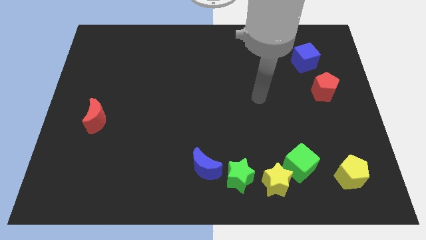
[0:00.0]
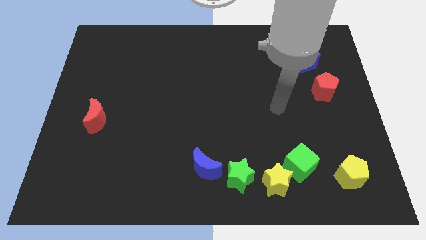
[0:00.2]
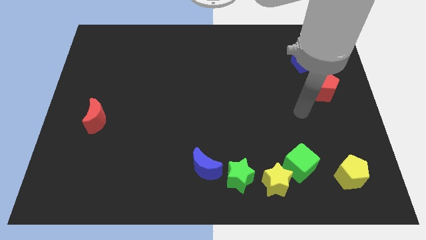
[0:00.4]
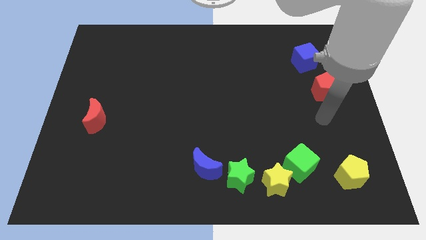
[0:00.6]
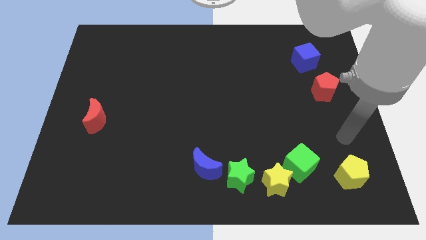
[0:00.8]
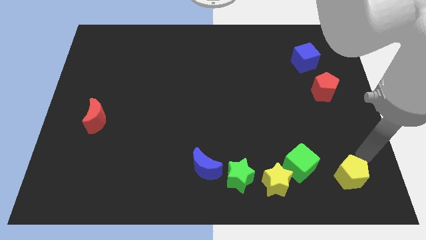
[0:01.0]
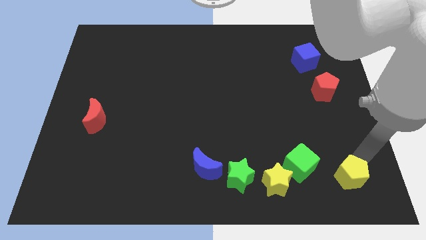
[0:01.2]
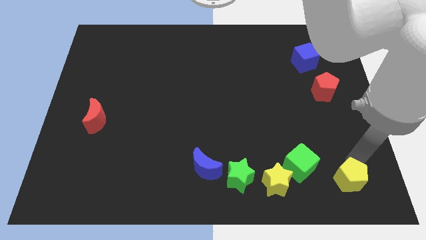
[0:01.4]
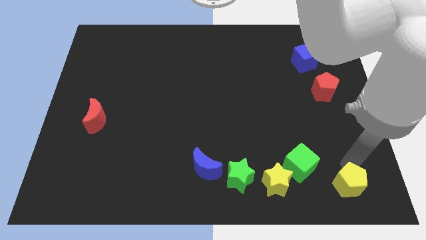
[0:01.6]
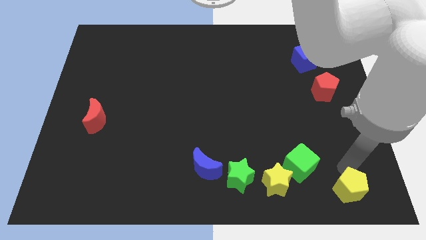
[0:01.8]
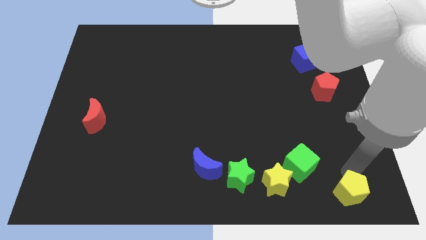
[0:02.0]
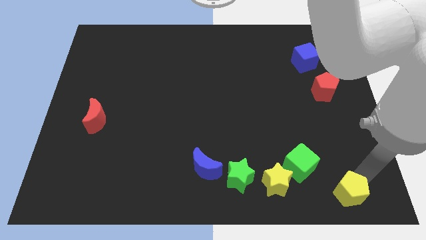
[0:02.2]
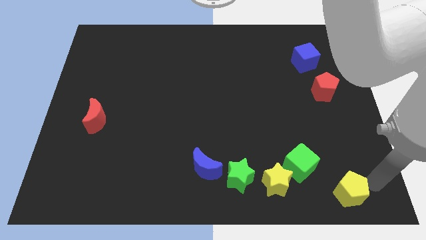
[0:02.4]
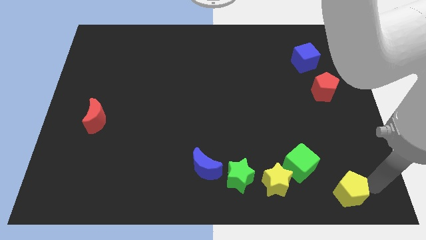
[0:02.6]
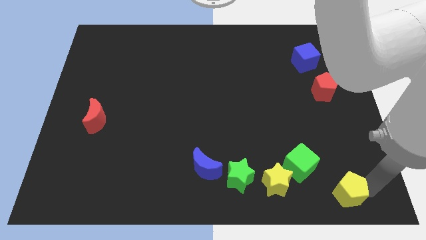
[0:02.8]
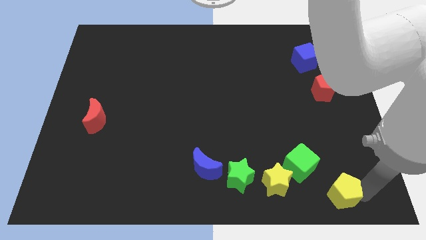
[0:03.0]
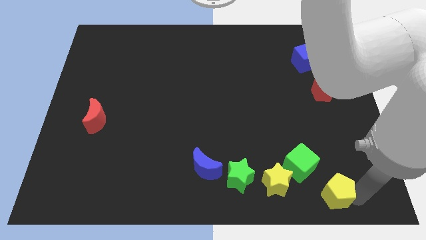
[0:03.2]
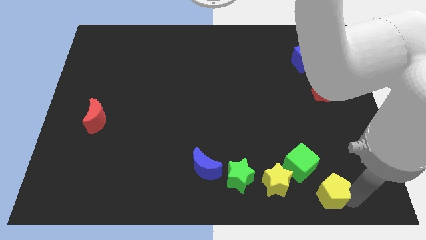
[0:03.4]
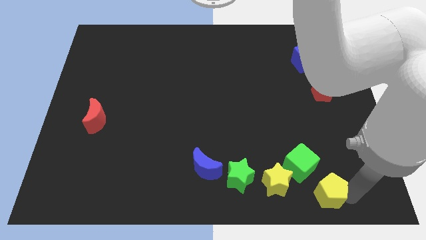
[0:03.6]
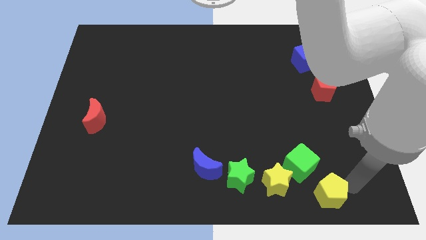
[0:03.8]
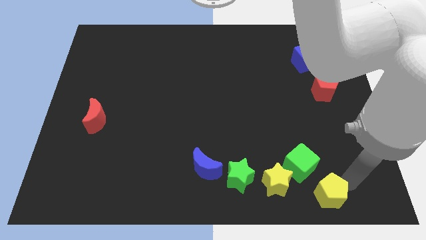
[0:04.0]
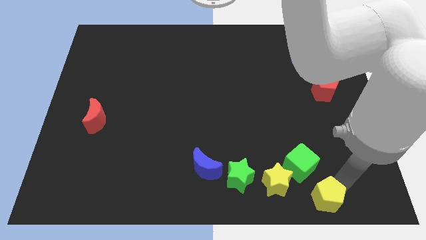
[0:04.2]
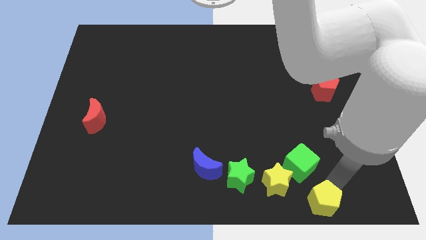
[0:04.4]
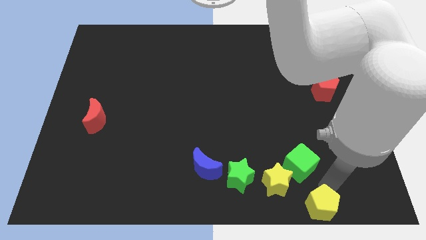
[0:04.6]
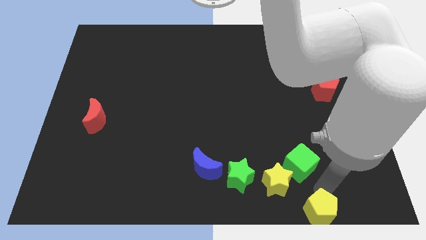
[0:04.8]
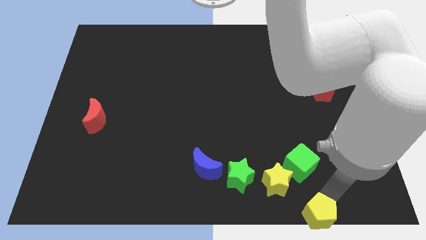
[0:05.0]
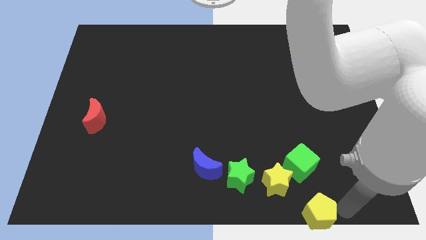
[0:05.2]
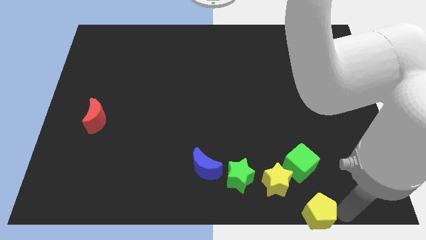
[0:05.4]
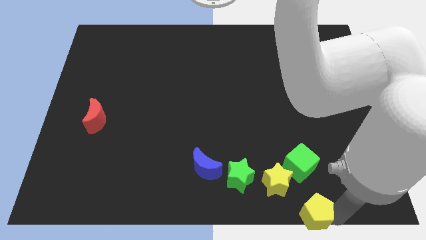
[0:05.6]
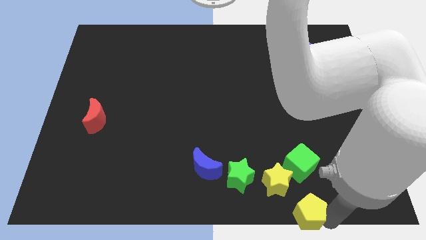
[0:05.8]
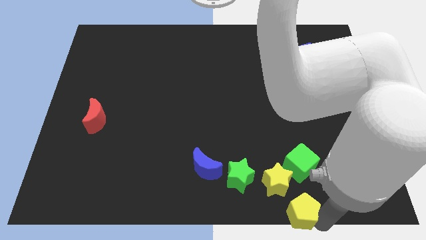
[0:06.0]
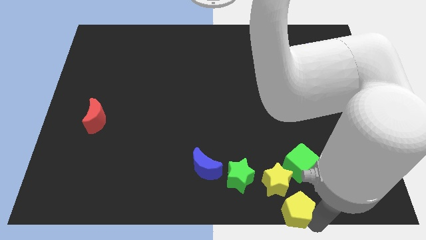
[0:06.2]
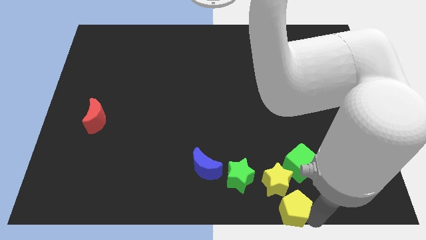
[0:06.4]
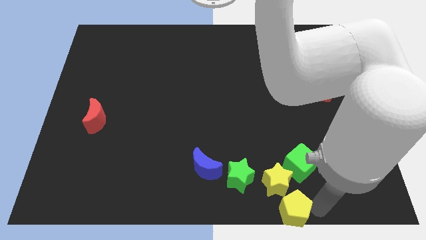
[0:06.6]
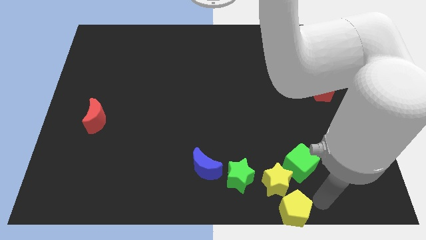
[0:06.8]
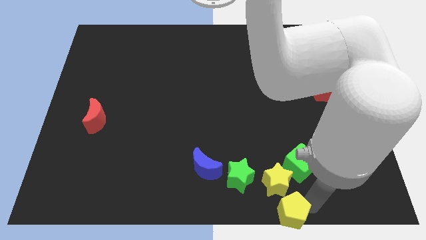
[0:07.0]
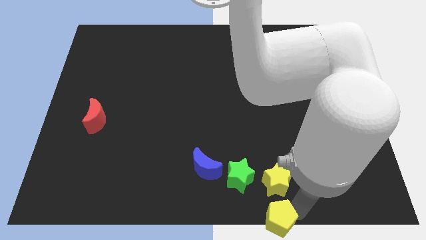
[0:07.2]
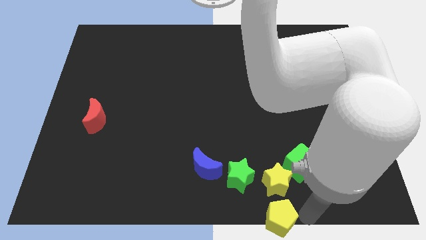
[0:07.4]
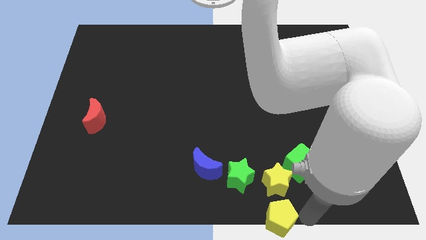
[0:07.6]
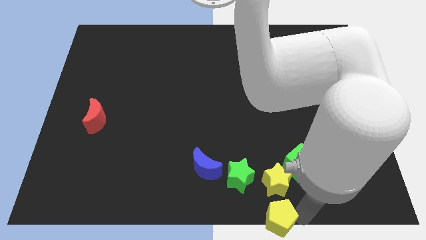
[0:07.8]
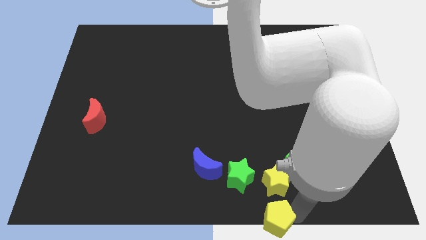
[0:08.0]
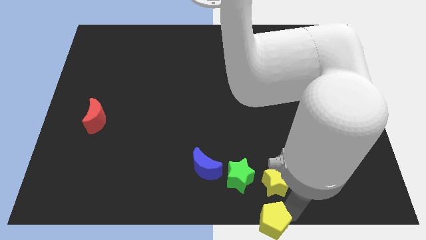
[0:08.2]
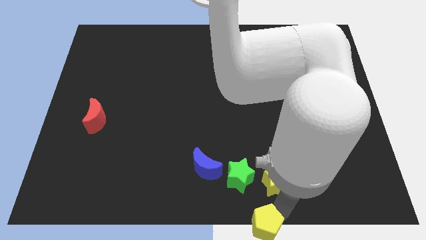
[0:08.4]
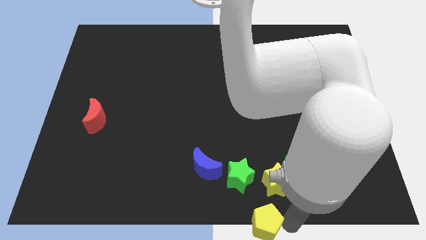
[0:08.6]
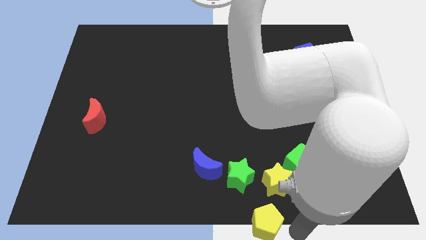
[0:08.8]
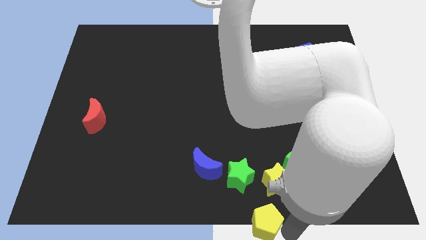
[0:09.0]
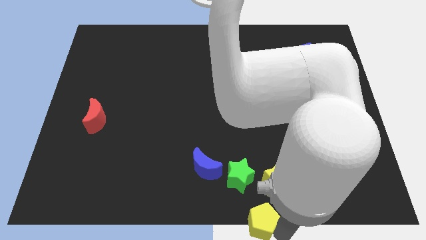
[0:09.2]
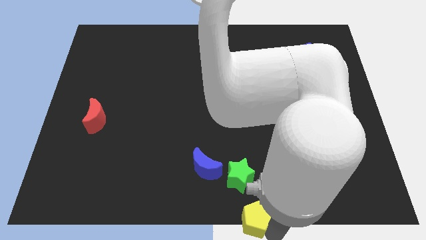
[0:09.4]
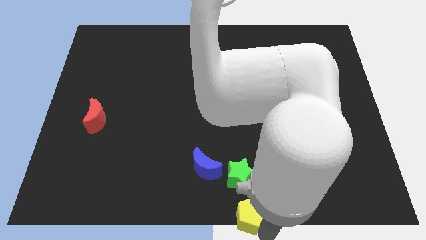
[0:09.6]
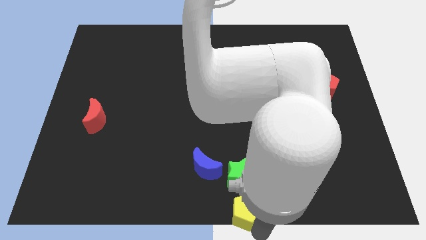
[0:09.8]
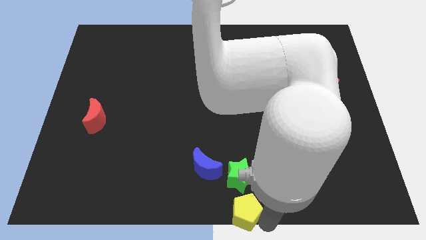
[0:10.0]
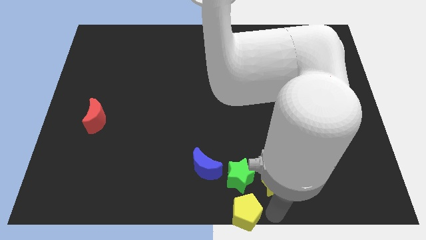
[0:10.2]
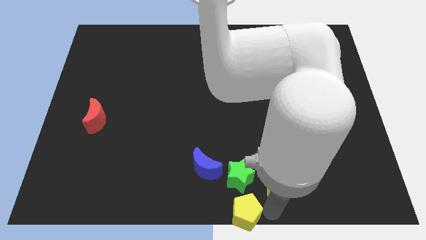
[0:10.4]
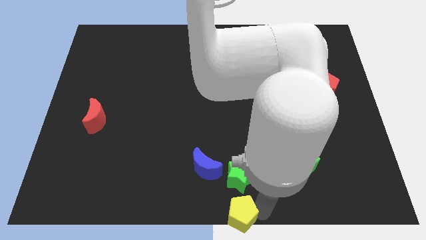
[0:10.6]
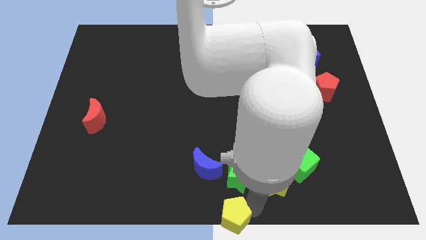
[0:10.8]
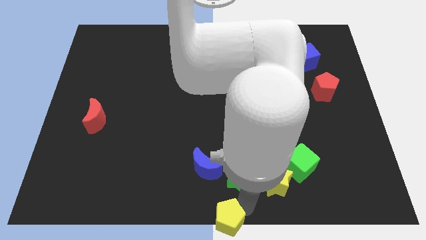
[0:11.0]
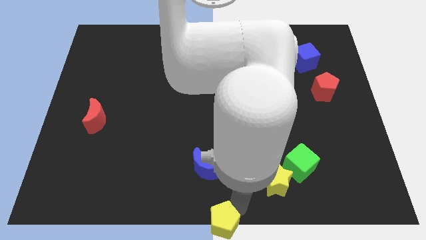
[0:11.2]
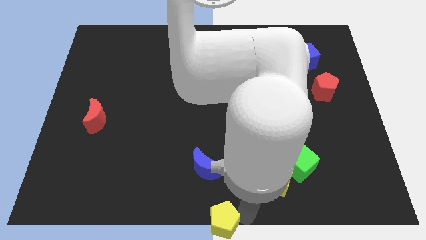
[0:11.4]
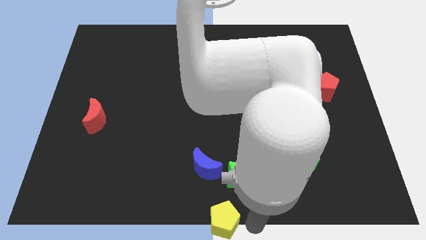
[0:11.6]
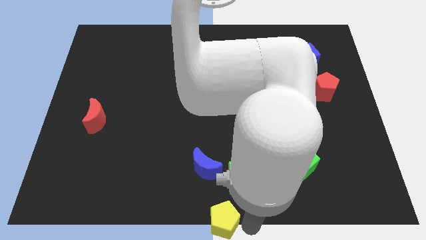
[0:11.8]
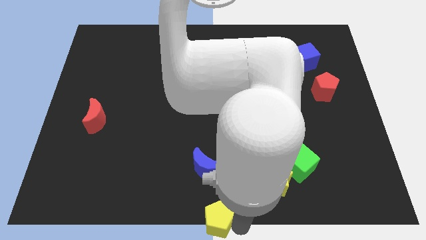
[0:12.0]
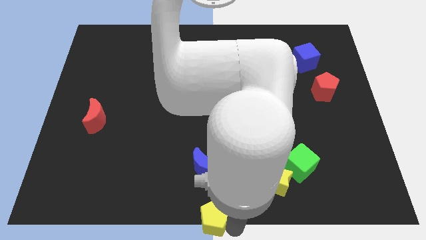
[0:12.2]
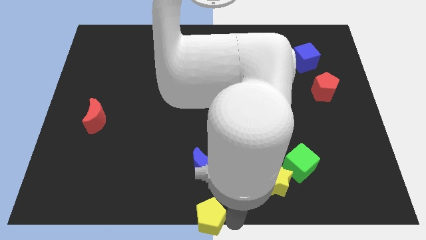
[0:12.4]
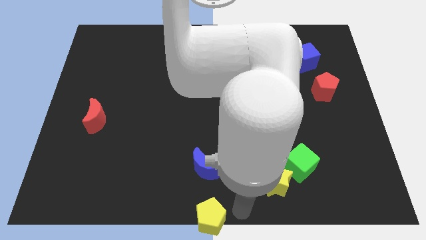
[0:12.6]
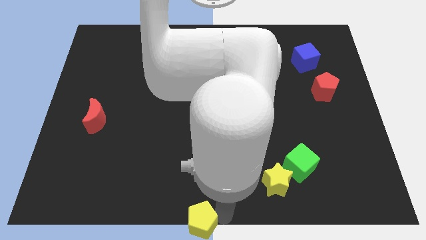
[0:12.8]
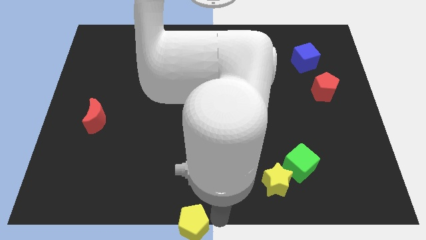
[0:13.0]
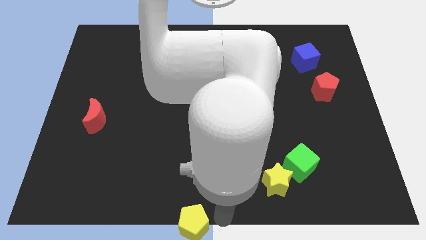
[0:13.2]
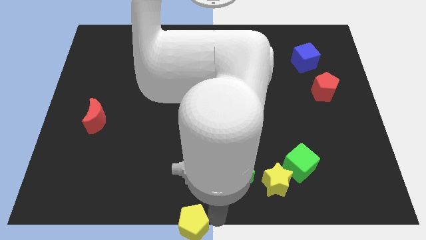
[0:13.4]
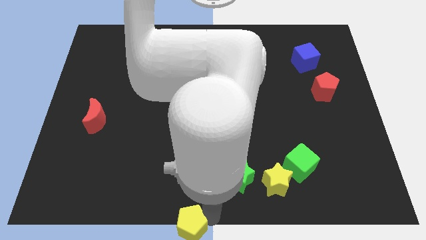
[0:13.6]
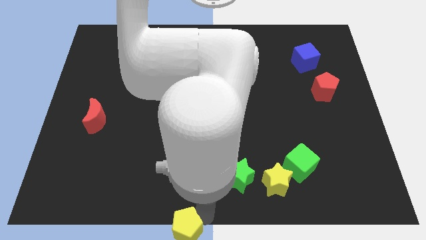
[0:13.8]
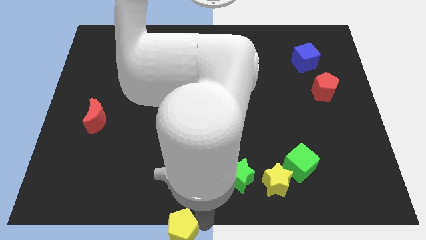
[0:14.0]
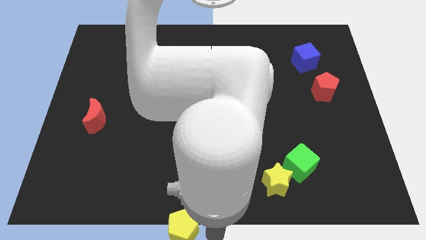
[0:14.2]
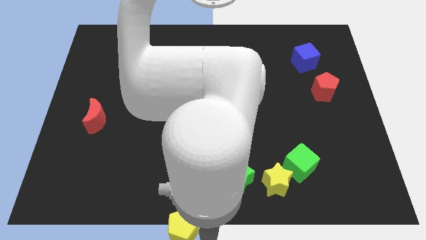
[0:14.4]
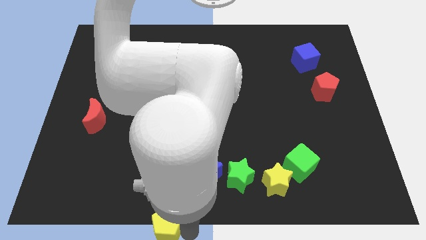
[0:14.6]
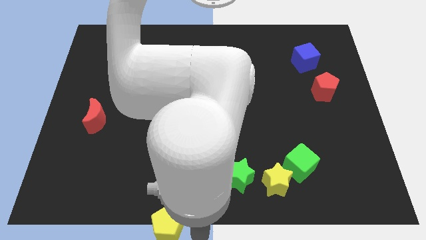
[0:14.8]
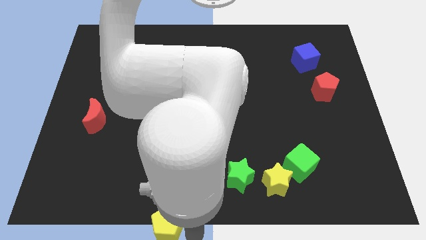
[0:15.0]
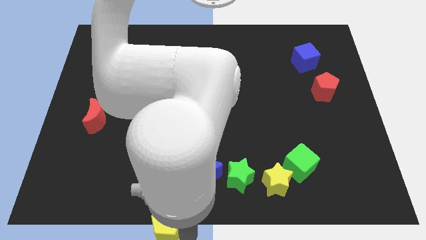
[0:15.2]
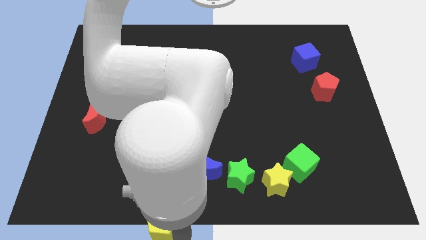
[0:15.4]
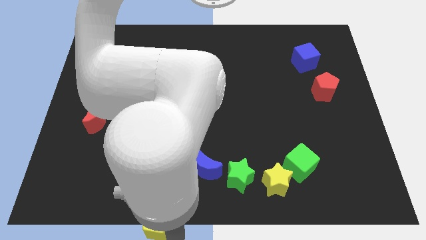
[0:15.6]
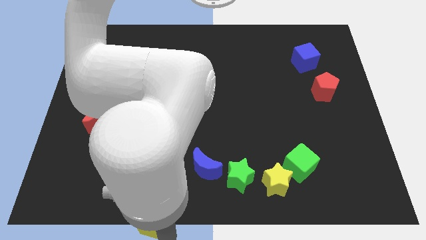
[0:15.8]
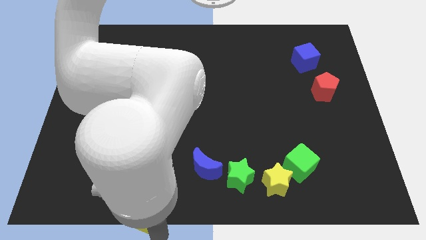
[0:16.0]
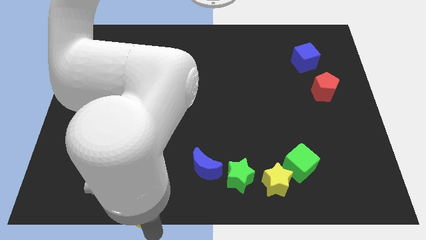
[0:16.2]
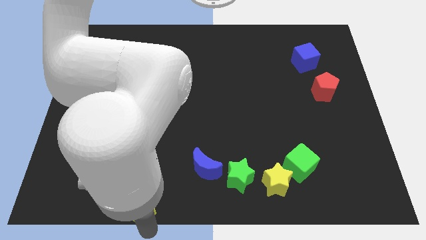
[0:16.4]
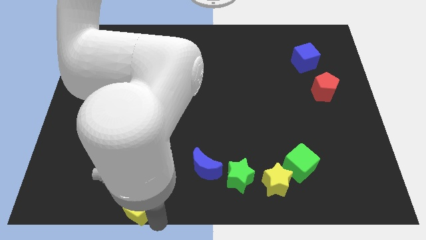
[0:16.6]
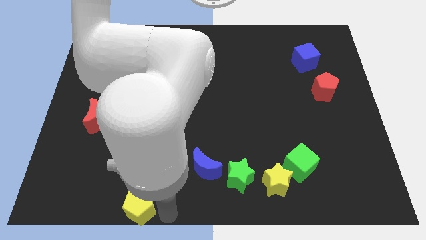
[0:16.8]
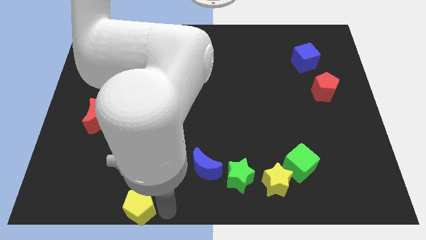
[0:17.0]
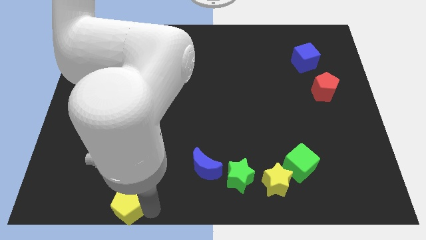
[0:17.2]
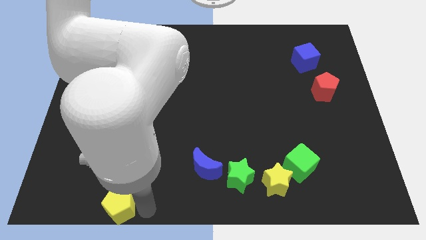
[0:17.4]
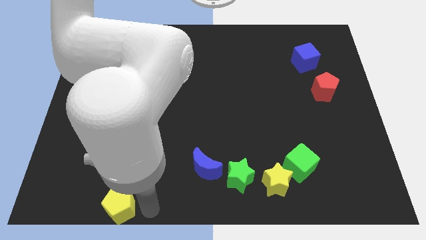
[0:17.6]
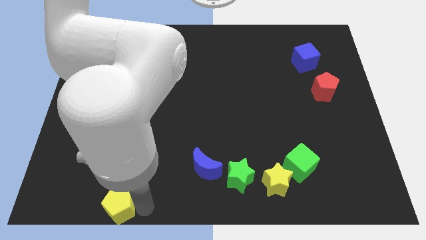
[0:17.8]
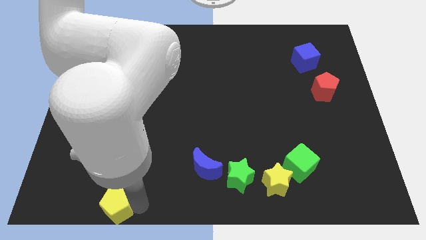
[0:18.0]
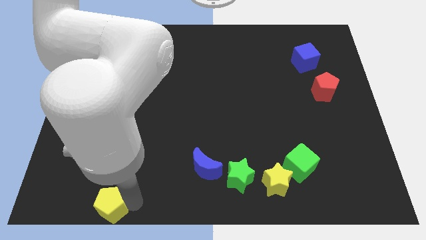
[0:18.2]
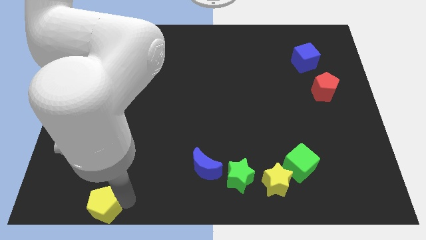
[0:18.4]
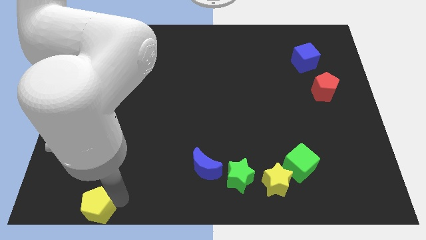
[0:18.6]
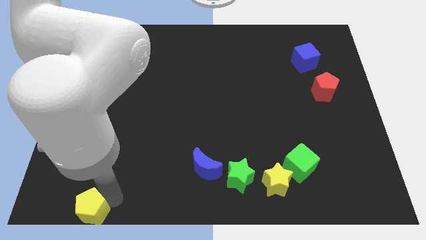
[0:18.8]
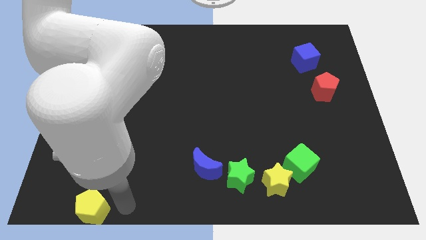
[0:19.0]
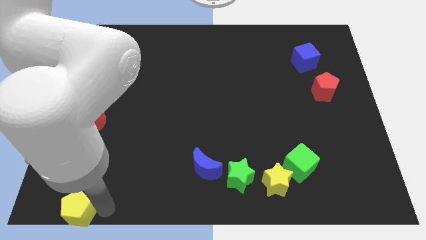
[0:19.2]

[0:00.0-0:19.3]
slide the yellow pentagon to the bottom left
